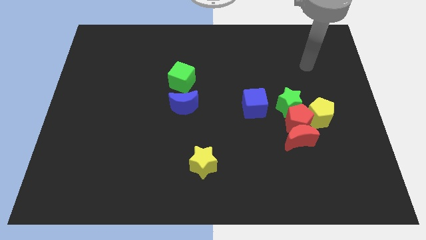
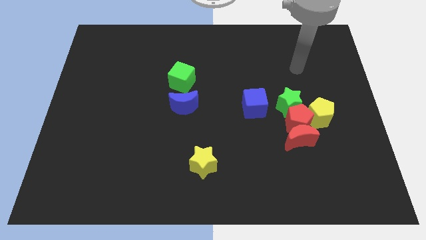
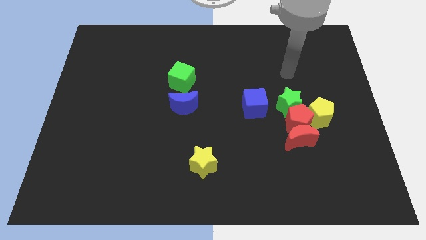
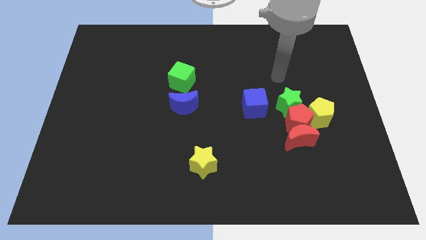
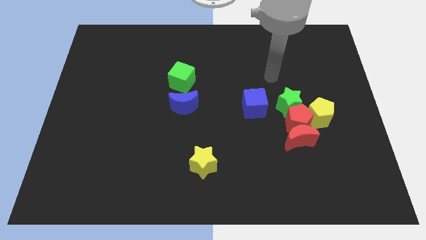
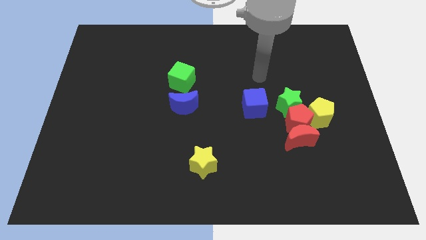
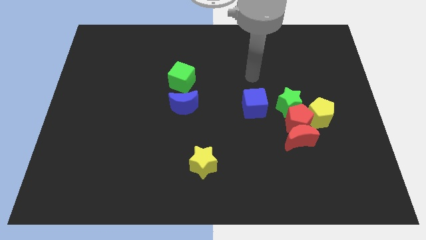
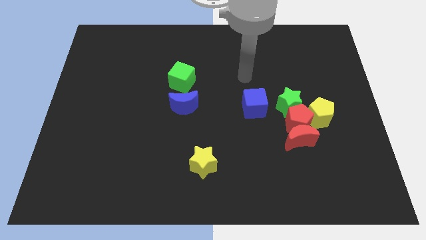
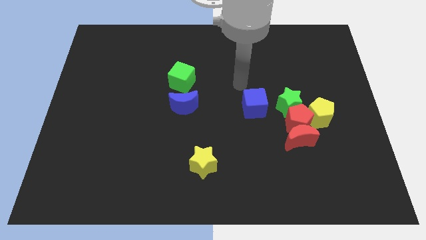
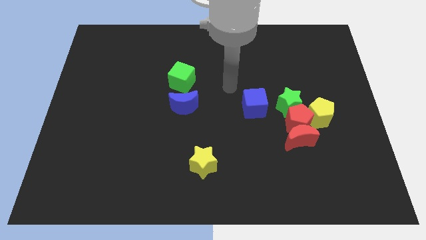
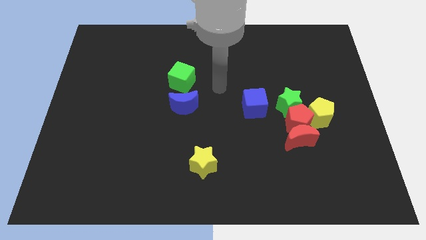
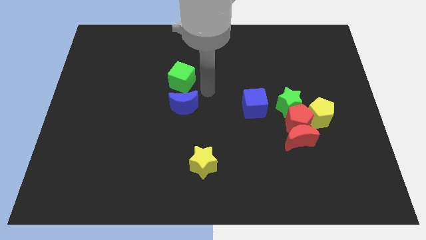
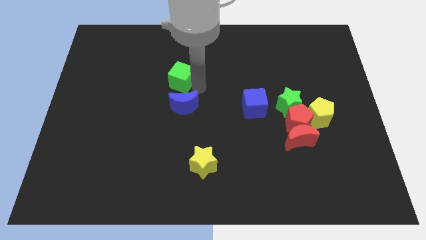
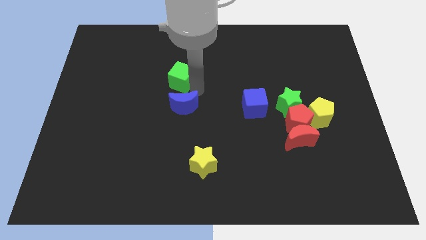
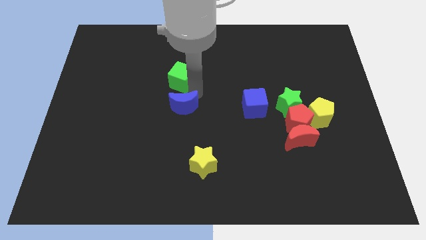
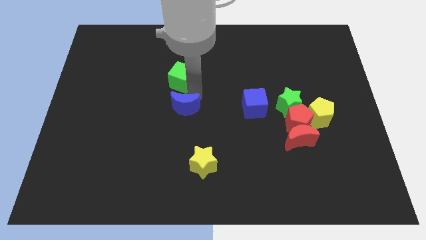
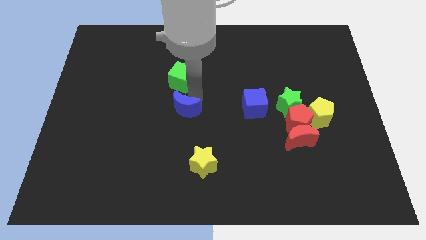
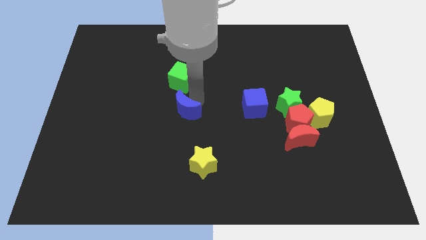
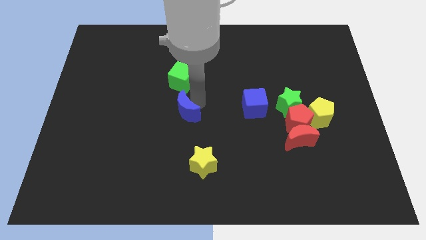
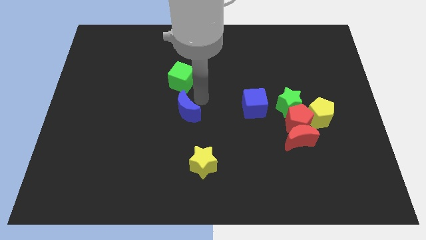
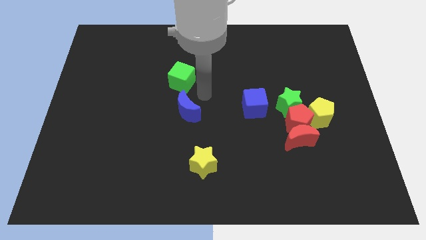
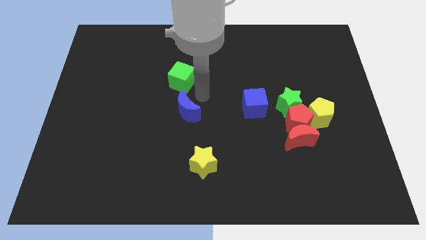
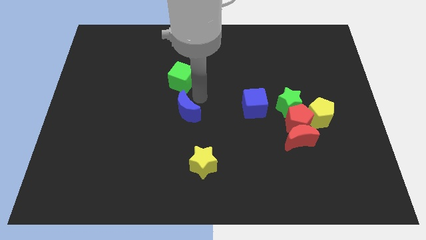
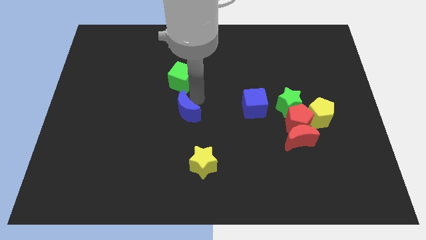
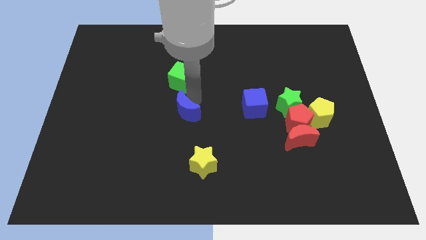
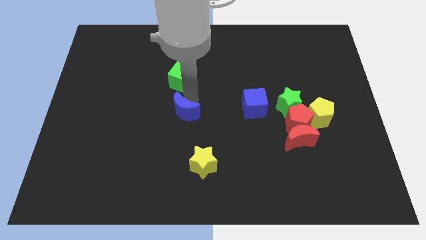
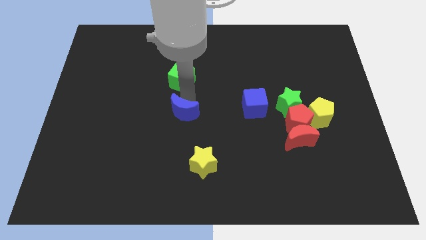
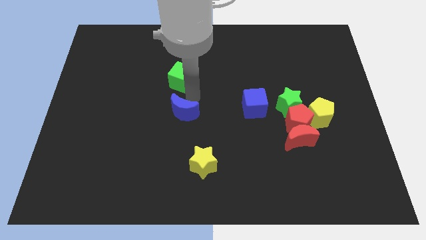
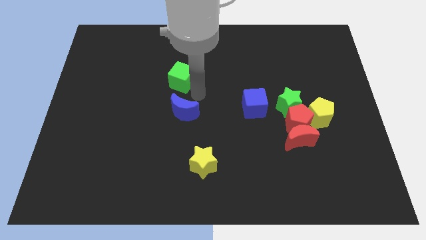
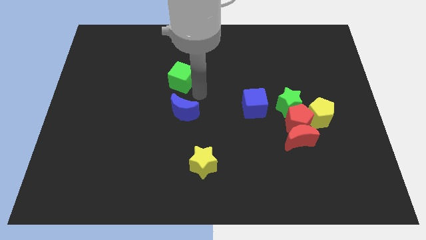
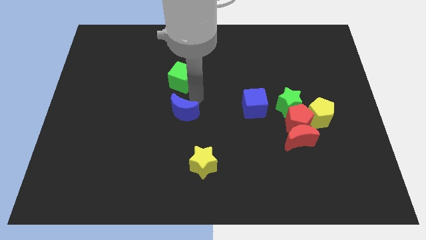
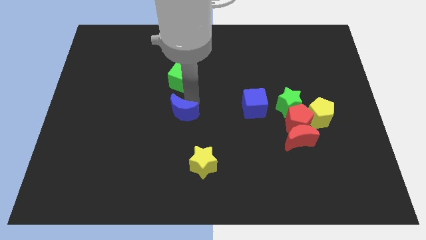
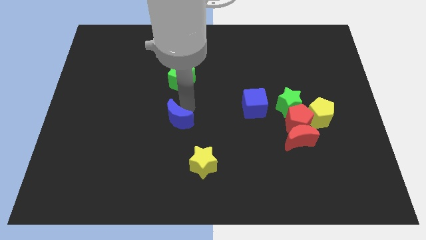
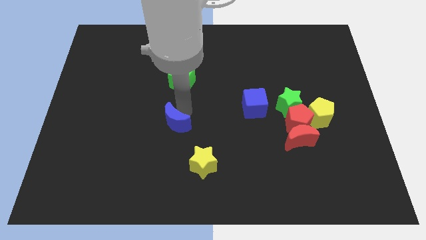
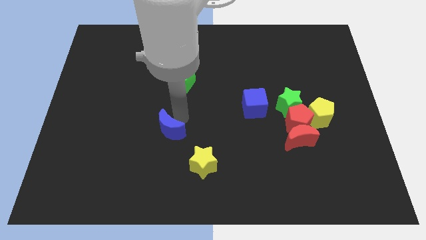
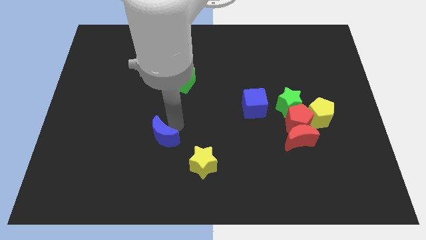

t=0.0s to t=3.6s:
move the blue moon a little bit downwards and left diagonally

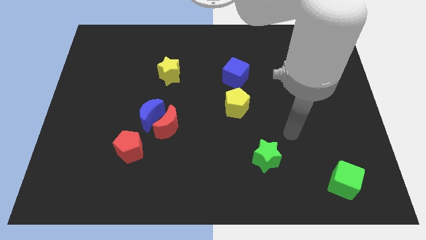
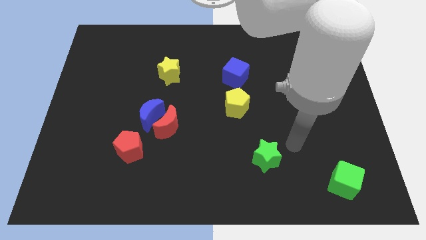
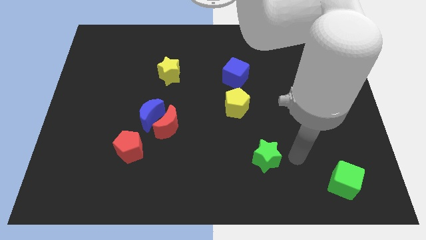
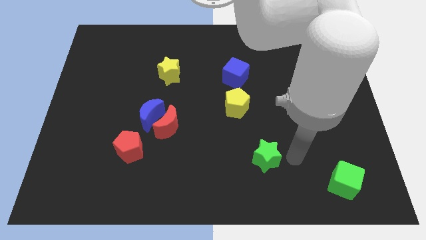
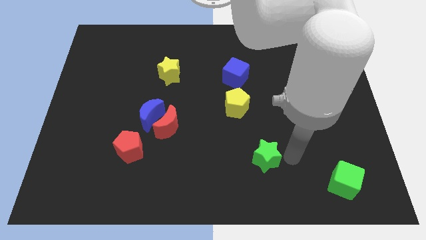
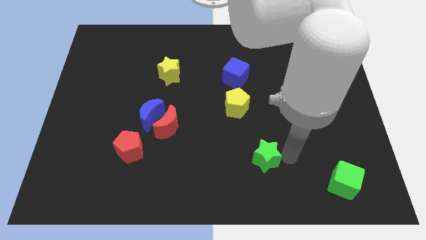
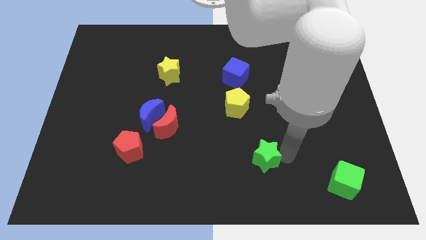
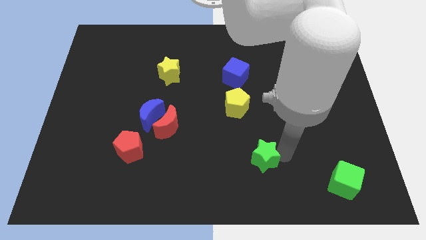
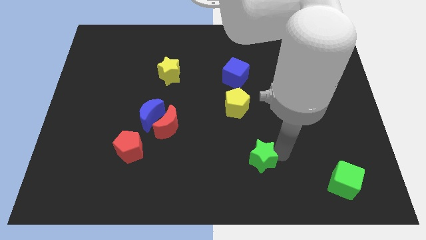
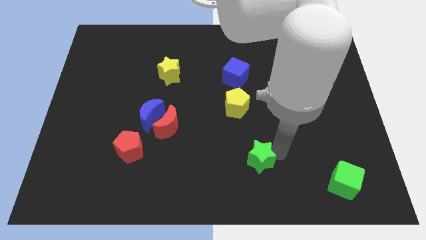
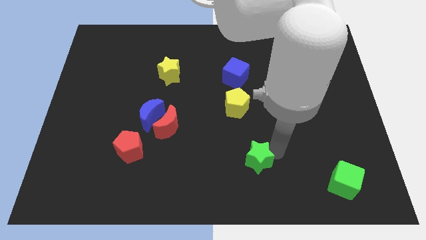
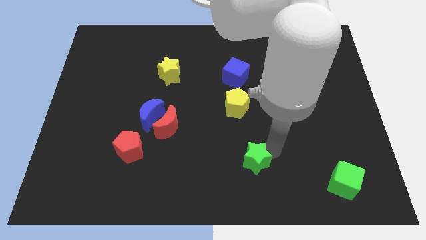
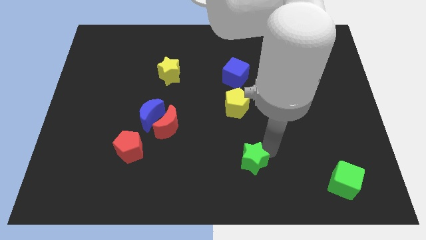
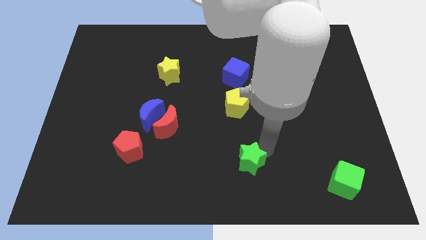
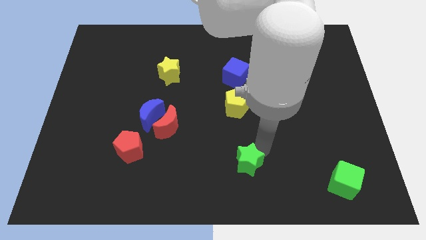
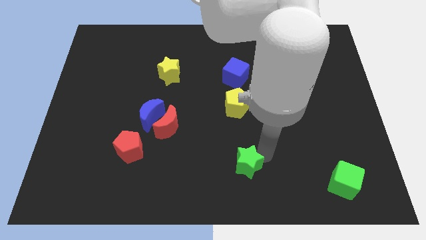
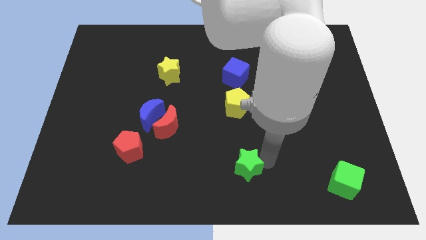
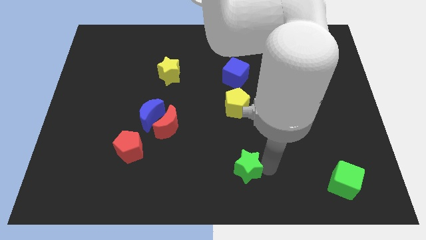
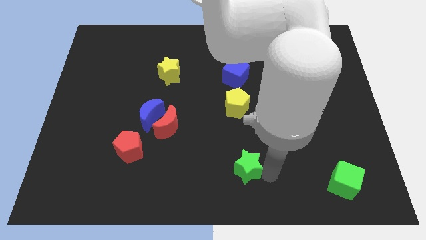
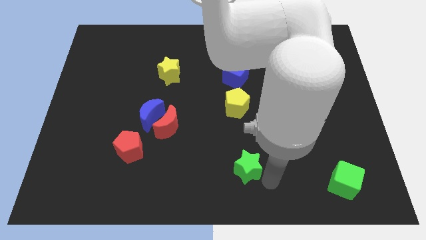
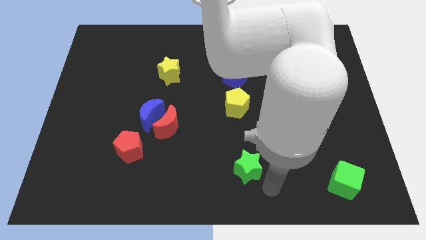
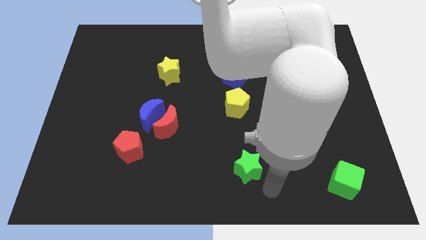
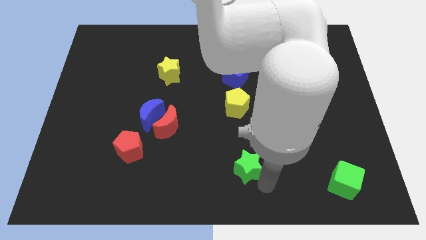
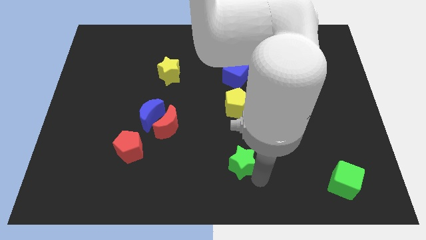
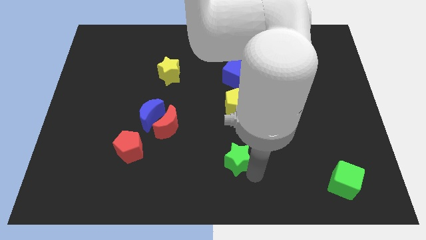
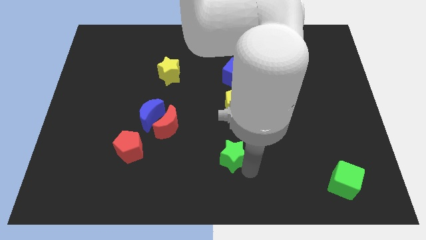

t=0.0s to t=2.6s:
push the green star to the left slightly

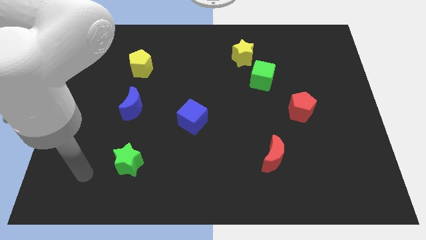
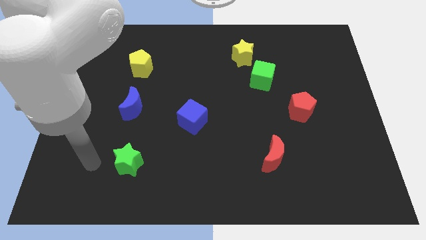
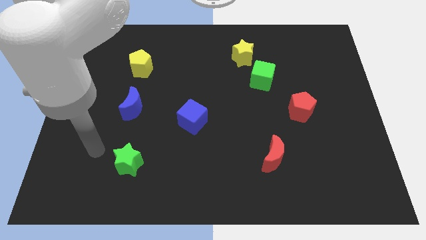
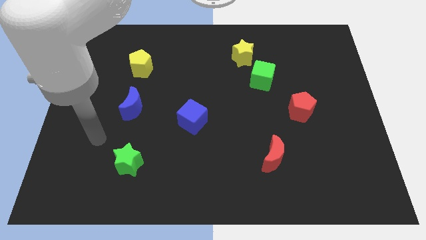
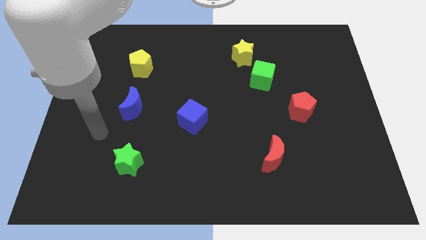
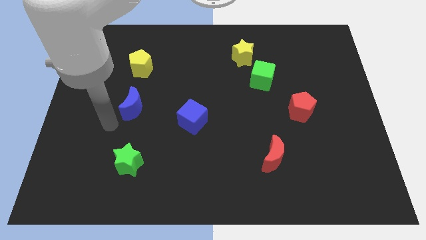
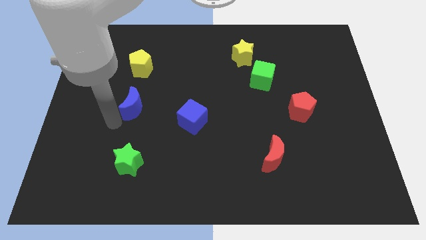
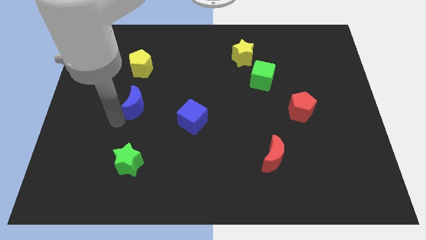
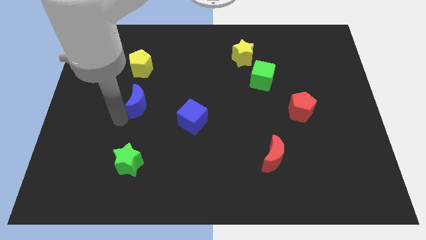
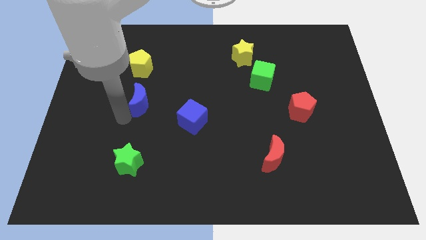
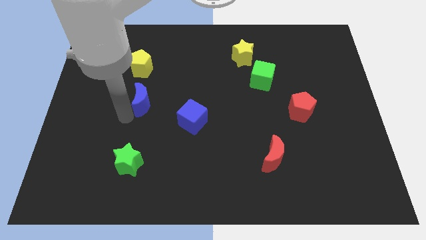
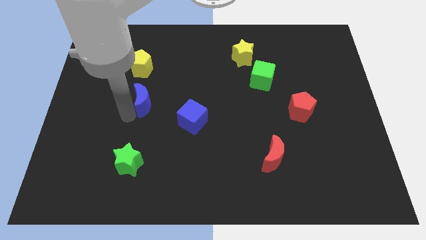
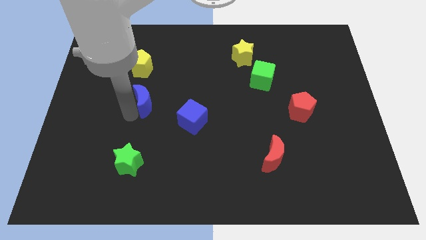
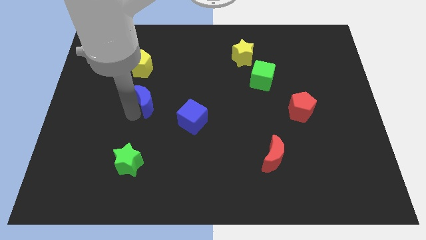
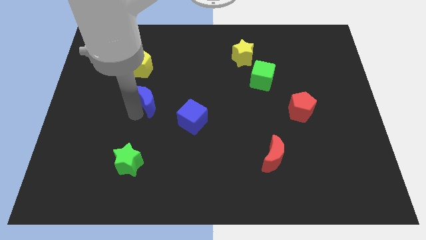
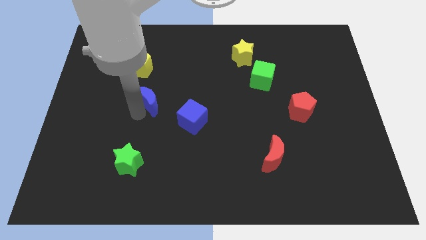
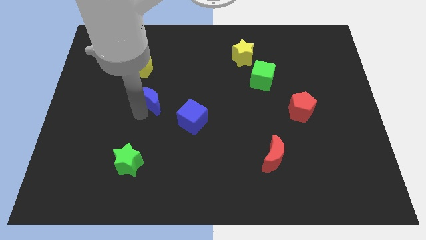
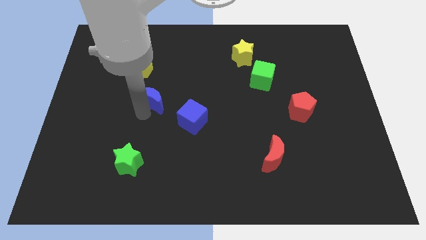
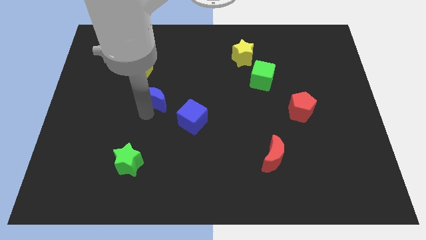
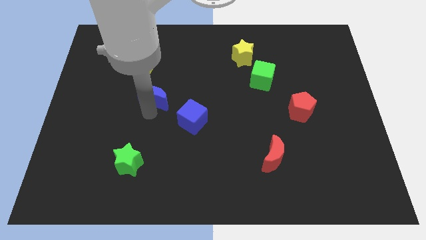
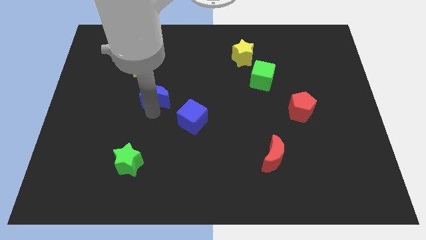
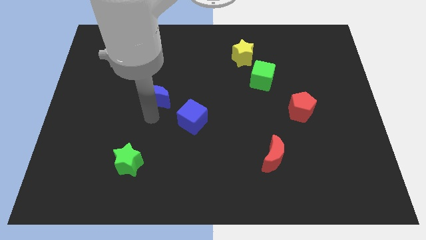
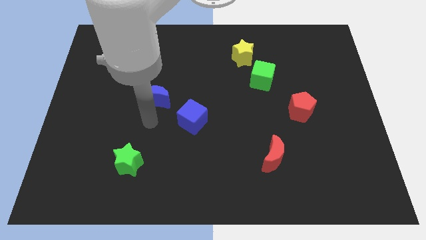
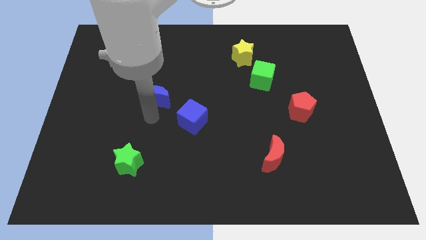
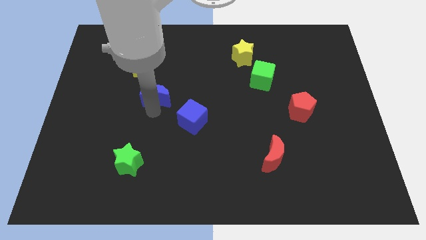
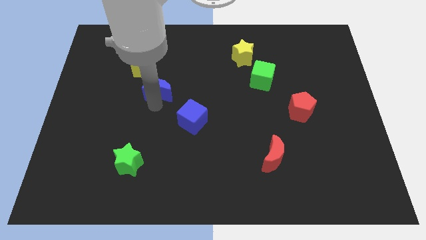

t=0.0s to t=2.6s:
move the blue moon a little upwards and right diagonally
